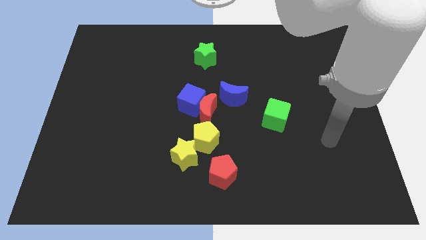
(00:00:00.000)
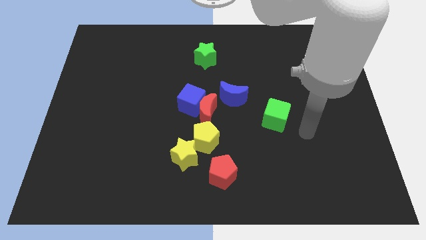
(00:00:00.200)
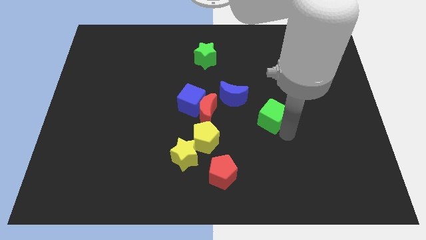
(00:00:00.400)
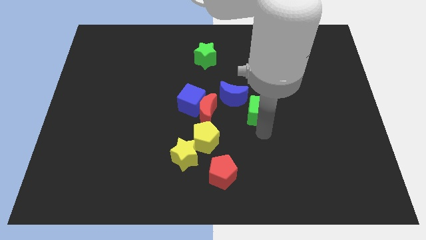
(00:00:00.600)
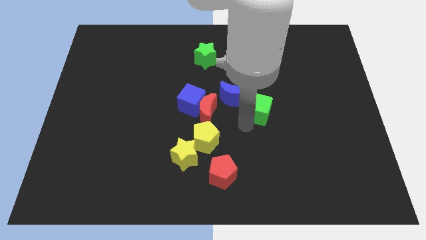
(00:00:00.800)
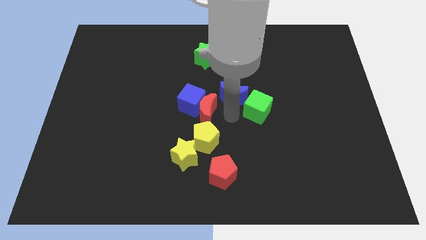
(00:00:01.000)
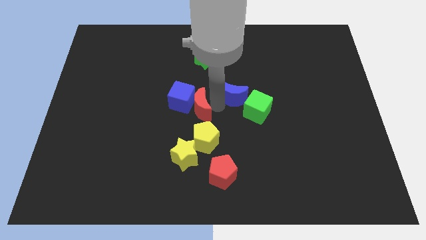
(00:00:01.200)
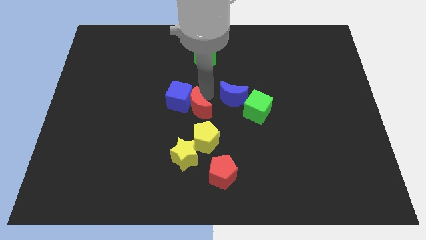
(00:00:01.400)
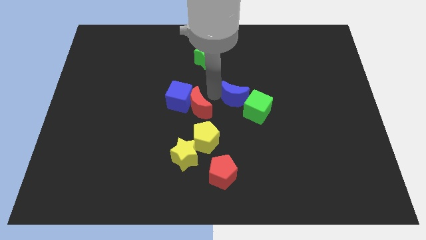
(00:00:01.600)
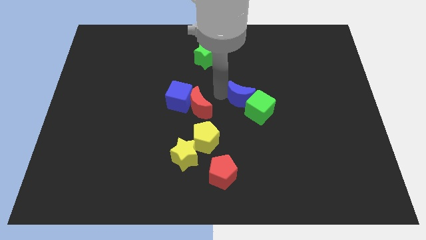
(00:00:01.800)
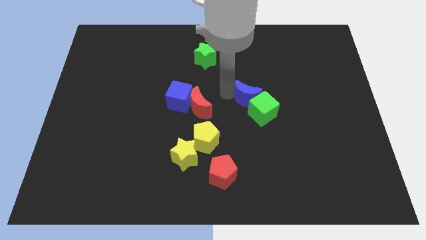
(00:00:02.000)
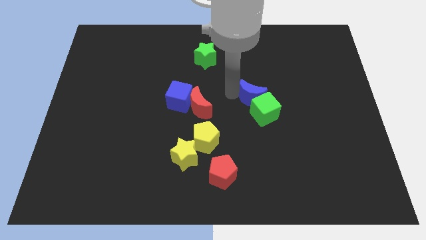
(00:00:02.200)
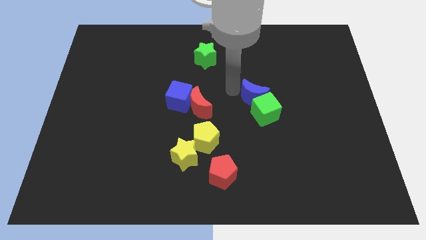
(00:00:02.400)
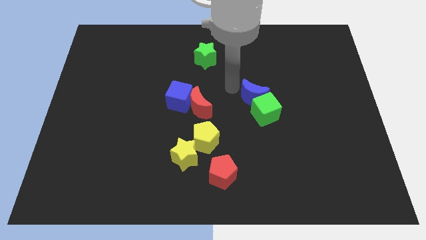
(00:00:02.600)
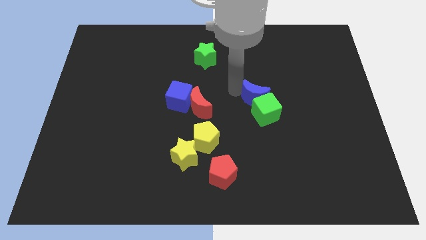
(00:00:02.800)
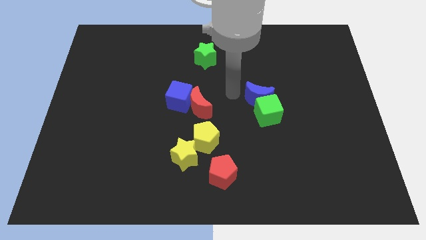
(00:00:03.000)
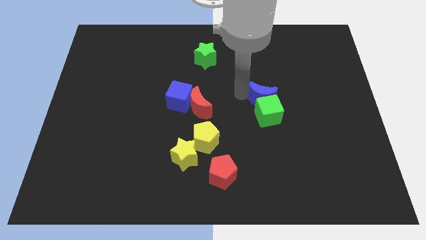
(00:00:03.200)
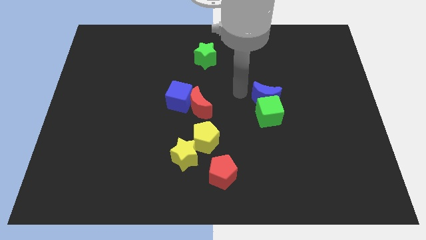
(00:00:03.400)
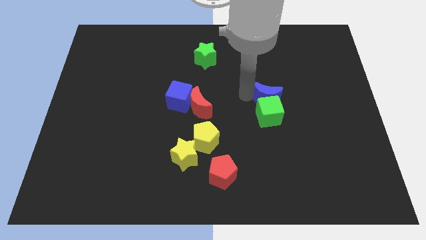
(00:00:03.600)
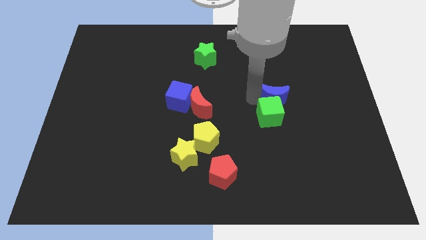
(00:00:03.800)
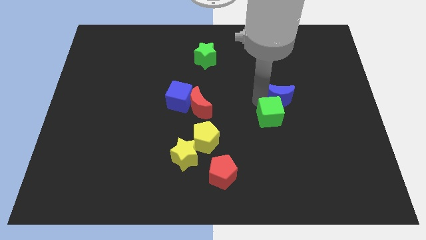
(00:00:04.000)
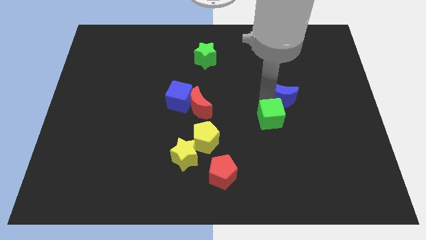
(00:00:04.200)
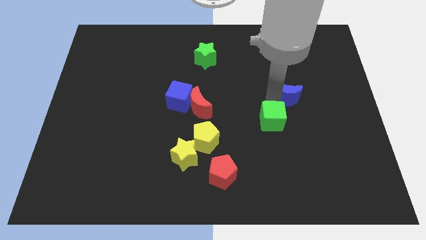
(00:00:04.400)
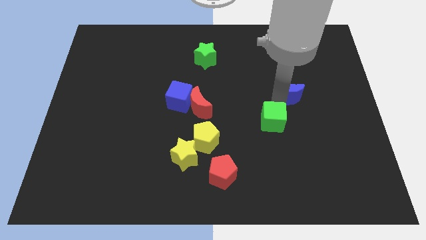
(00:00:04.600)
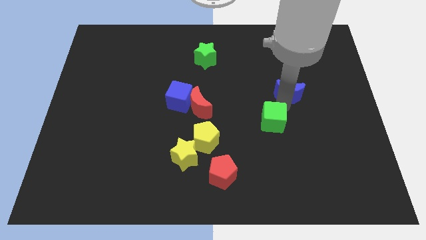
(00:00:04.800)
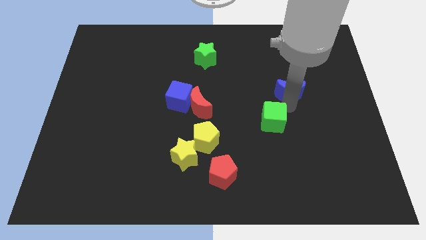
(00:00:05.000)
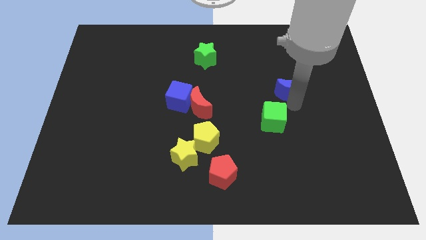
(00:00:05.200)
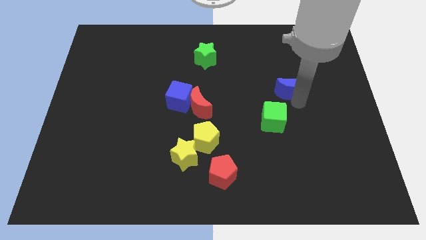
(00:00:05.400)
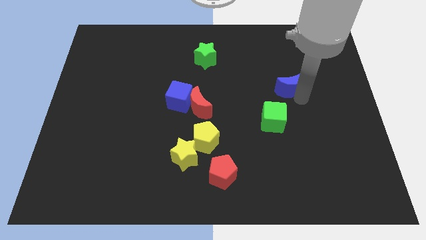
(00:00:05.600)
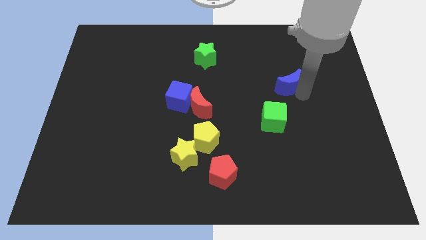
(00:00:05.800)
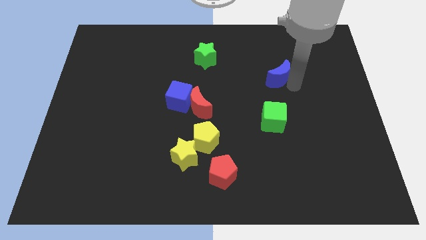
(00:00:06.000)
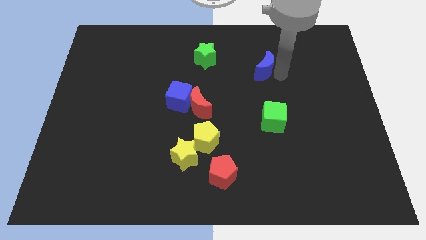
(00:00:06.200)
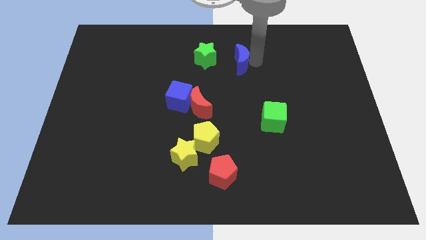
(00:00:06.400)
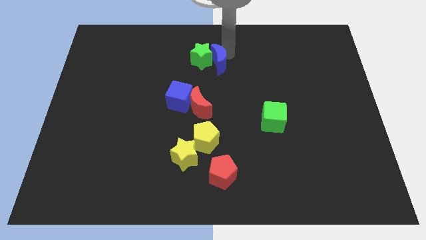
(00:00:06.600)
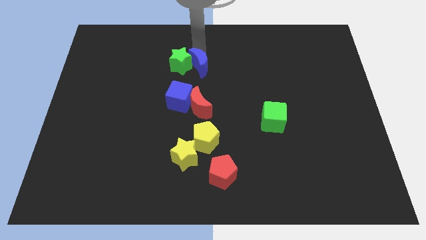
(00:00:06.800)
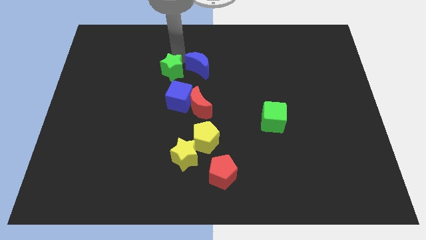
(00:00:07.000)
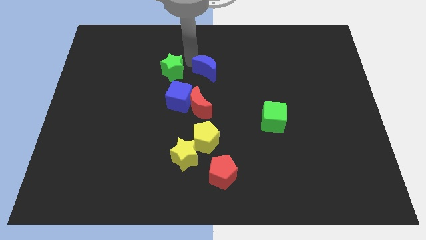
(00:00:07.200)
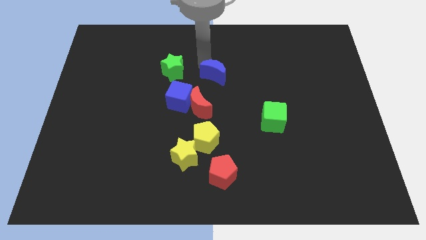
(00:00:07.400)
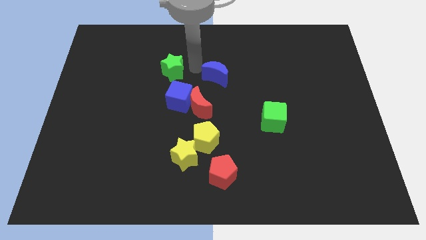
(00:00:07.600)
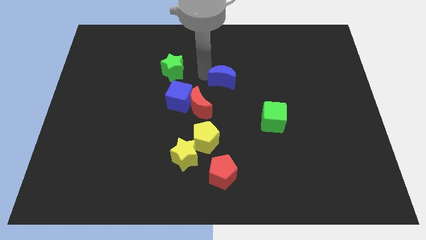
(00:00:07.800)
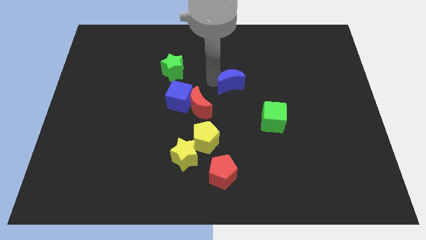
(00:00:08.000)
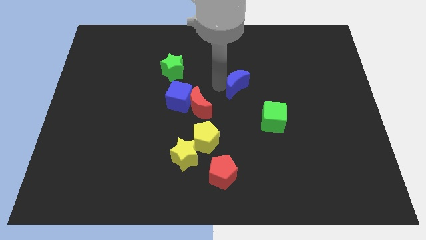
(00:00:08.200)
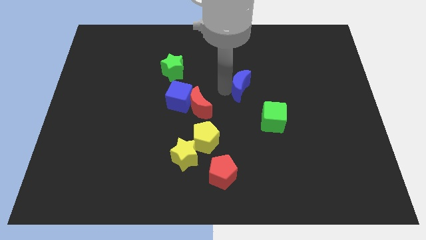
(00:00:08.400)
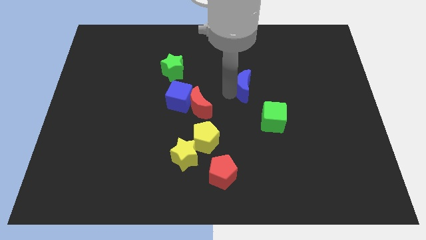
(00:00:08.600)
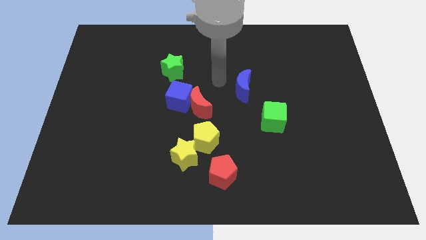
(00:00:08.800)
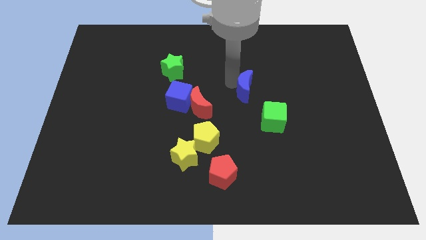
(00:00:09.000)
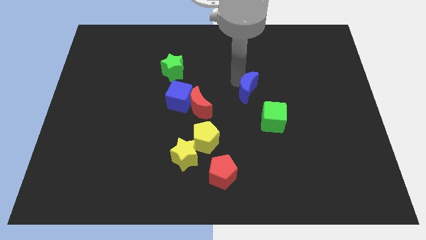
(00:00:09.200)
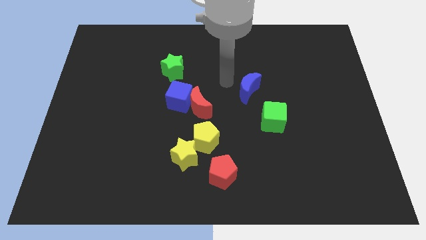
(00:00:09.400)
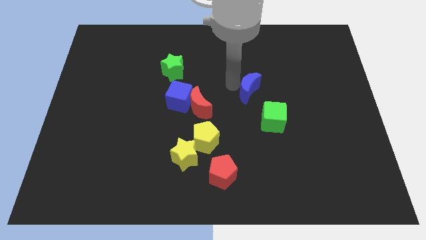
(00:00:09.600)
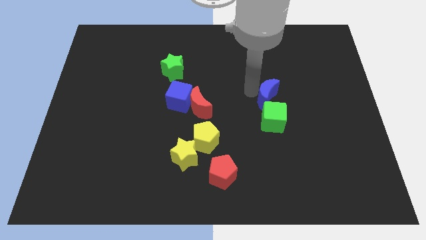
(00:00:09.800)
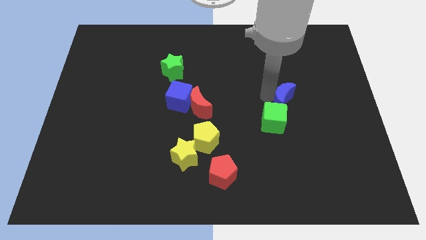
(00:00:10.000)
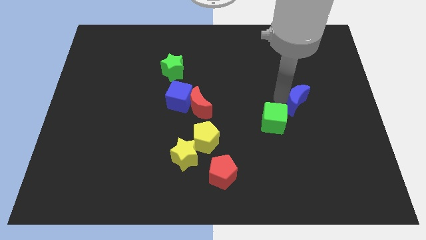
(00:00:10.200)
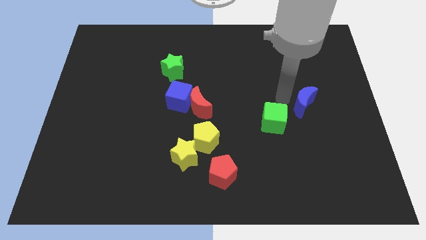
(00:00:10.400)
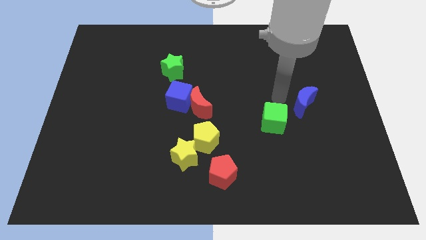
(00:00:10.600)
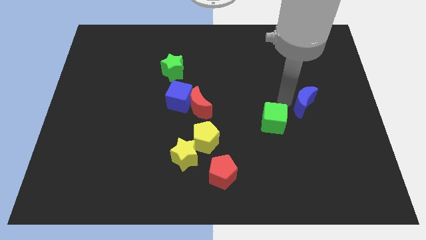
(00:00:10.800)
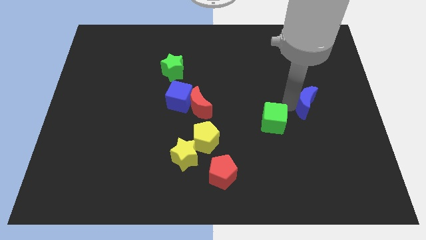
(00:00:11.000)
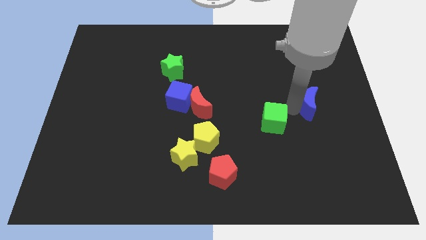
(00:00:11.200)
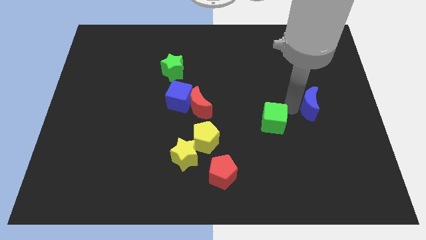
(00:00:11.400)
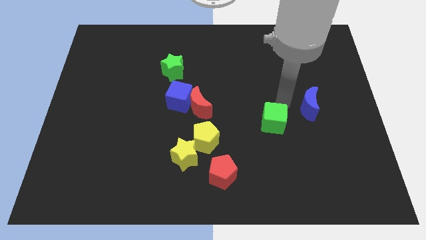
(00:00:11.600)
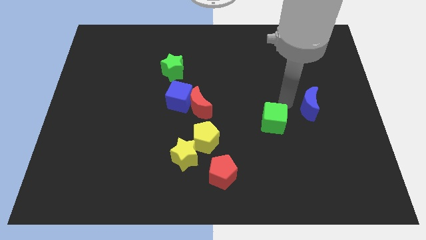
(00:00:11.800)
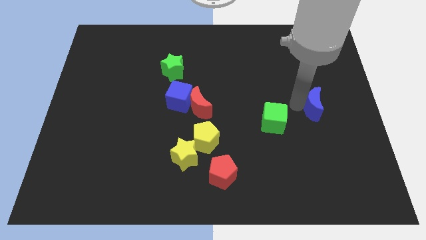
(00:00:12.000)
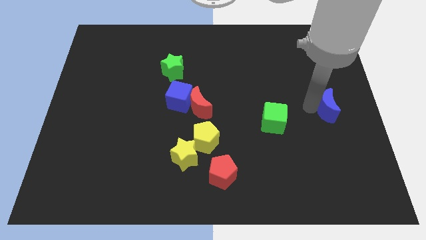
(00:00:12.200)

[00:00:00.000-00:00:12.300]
move the blue moon to the right side

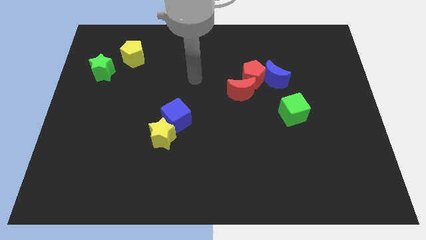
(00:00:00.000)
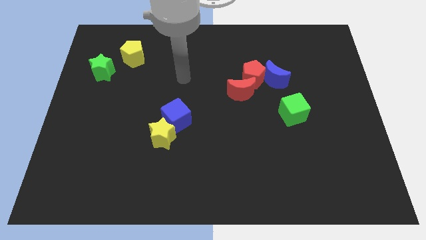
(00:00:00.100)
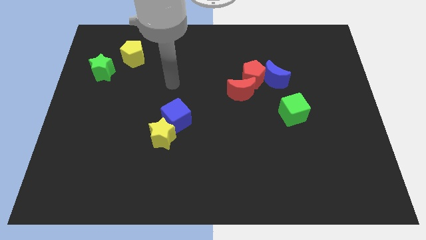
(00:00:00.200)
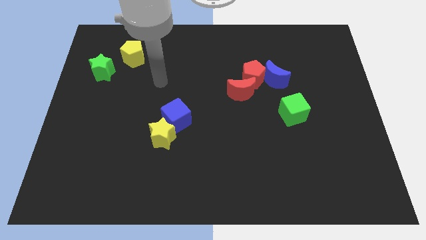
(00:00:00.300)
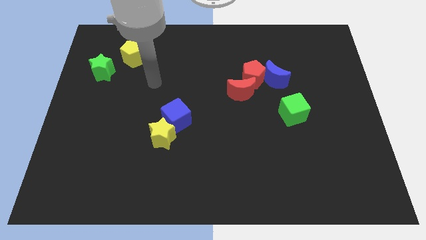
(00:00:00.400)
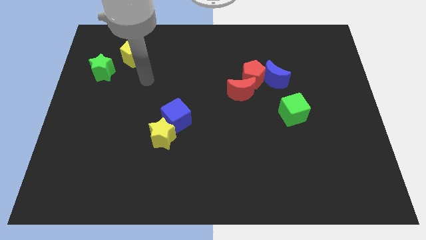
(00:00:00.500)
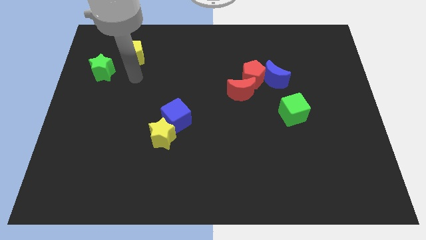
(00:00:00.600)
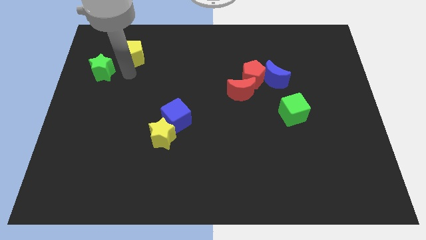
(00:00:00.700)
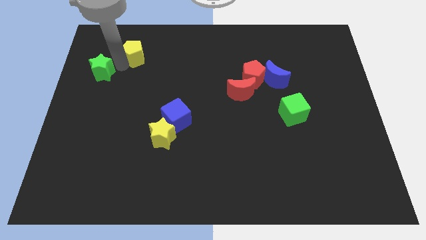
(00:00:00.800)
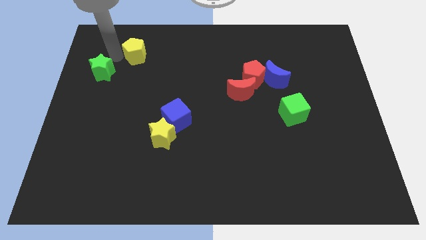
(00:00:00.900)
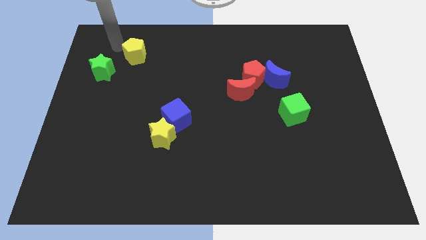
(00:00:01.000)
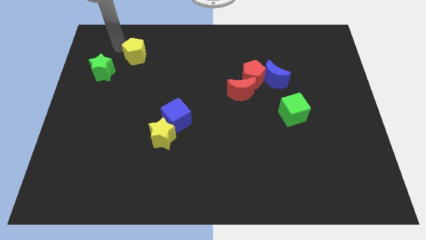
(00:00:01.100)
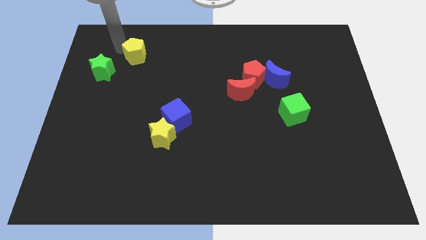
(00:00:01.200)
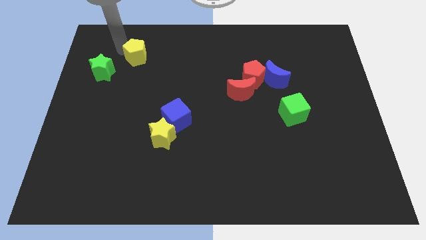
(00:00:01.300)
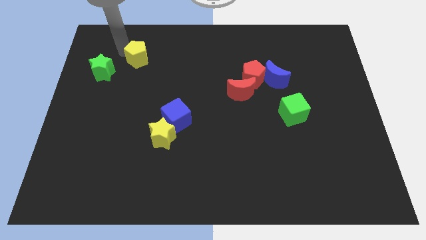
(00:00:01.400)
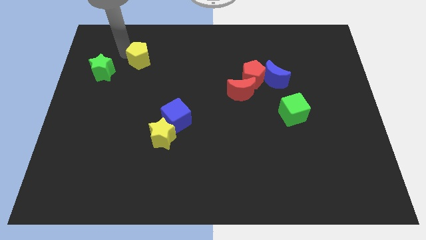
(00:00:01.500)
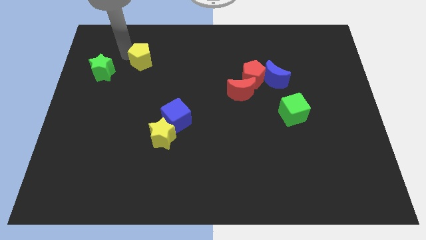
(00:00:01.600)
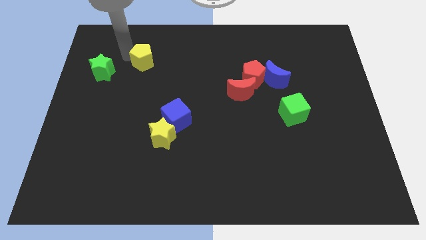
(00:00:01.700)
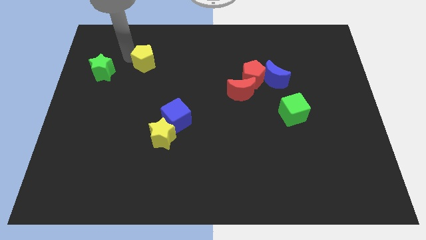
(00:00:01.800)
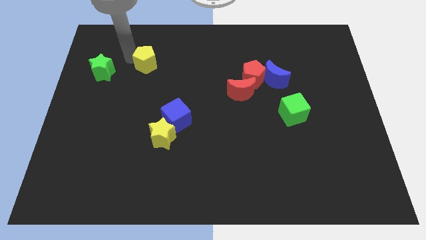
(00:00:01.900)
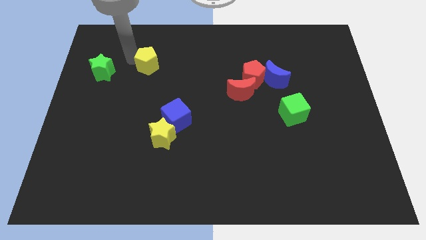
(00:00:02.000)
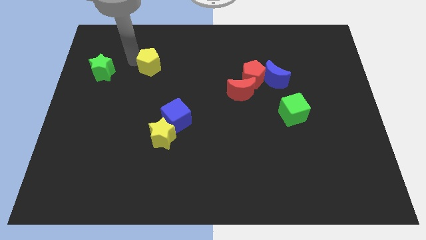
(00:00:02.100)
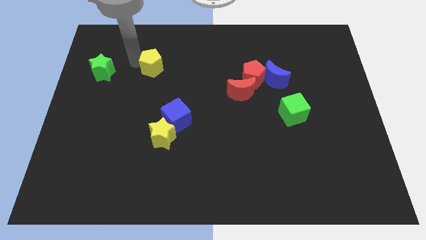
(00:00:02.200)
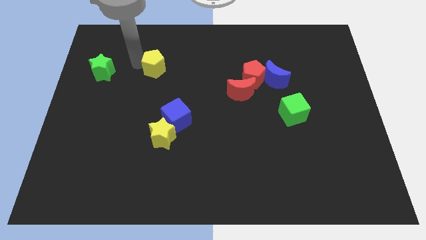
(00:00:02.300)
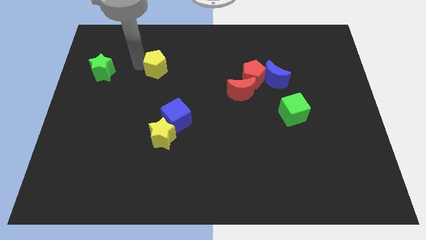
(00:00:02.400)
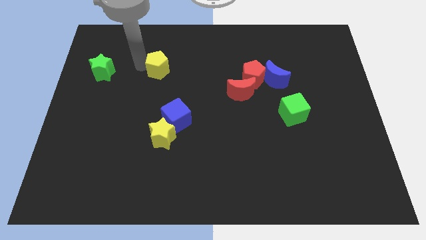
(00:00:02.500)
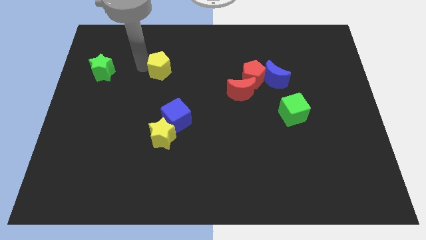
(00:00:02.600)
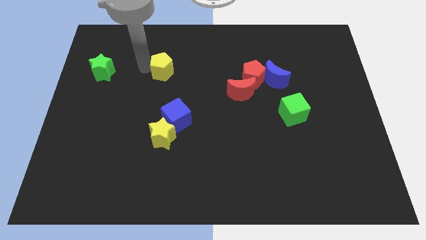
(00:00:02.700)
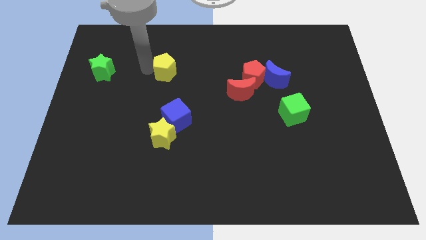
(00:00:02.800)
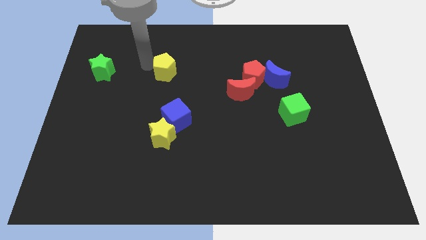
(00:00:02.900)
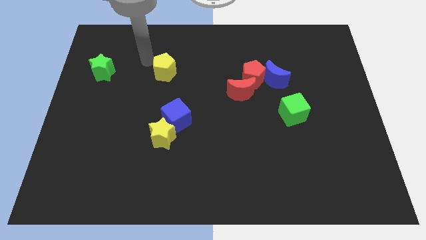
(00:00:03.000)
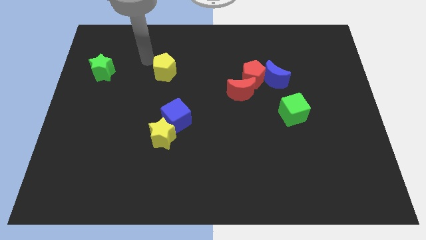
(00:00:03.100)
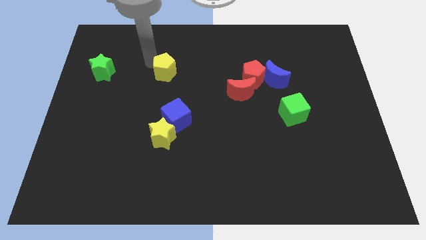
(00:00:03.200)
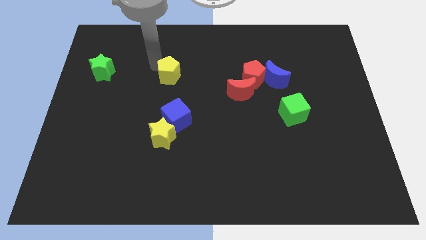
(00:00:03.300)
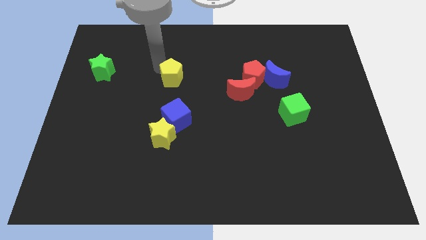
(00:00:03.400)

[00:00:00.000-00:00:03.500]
move the yellow pentagon to the middle
